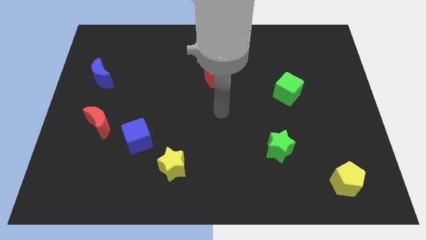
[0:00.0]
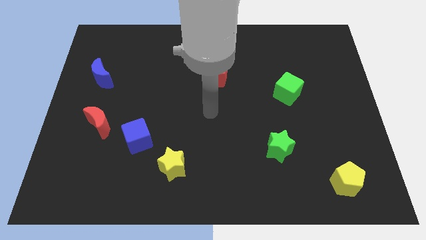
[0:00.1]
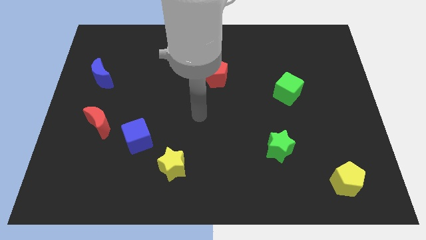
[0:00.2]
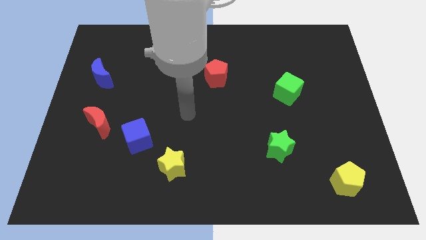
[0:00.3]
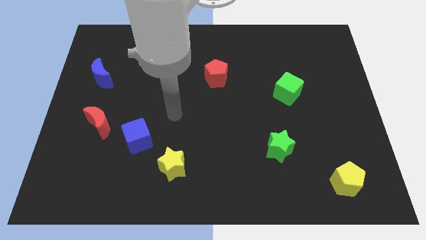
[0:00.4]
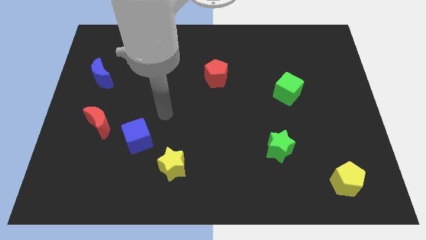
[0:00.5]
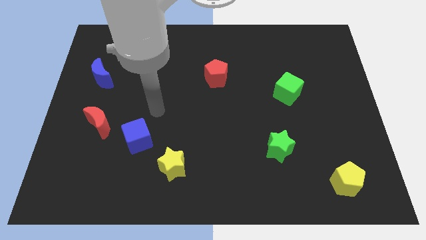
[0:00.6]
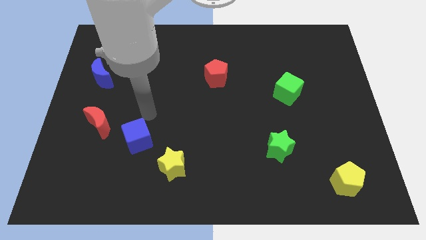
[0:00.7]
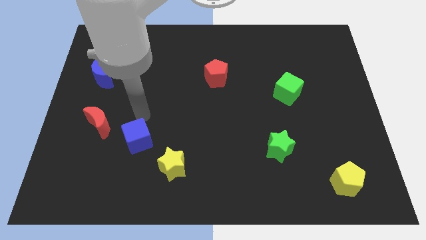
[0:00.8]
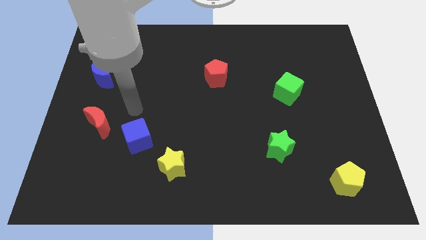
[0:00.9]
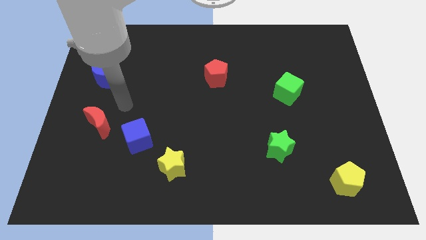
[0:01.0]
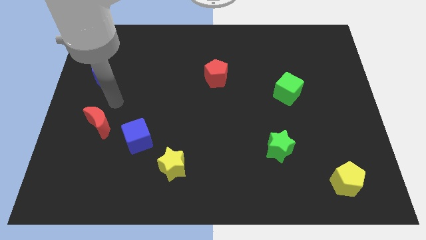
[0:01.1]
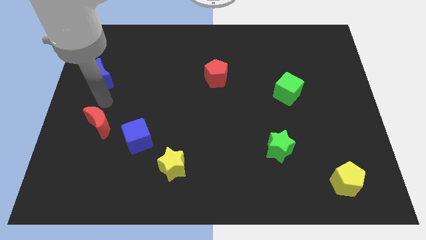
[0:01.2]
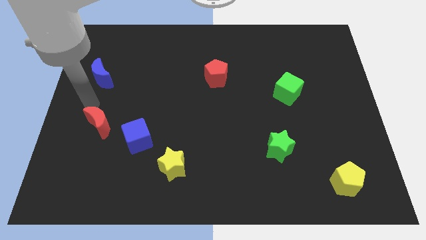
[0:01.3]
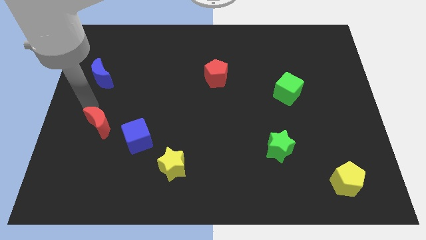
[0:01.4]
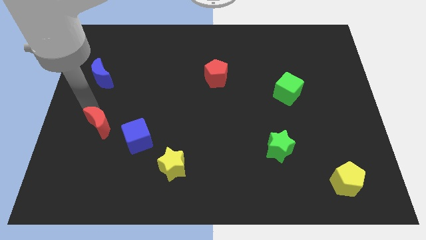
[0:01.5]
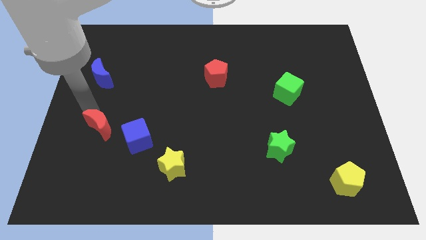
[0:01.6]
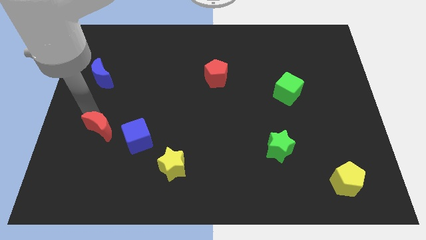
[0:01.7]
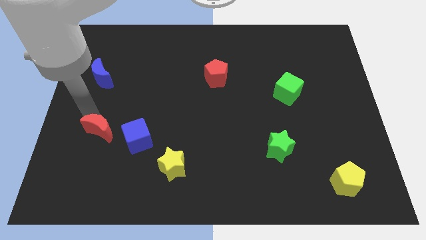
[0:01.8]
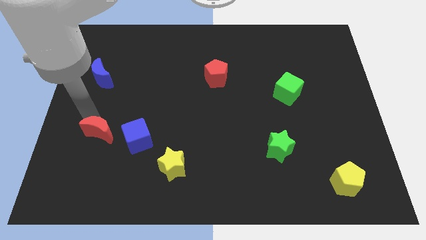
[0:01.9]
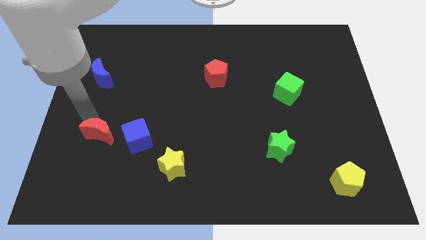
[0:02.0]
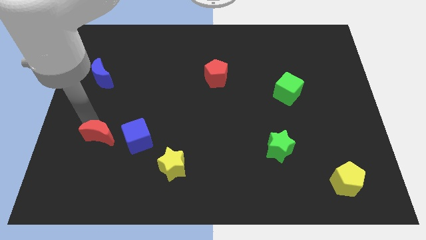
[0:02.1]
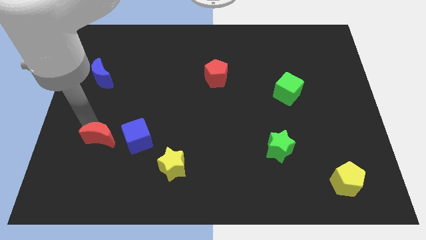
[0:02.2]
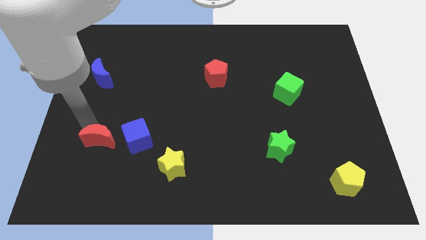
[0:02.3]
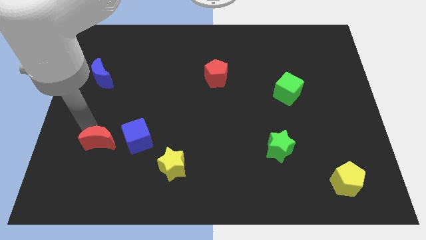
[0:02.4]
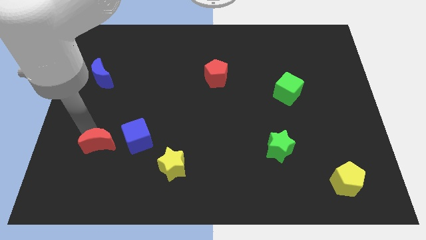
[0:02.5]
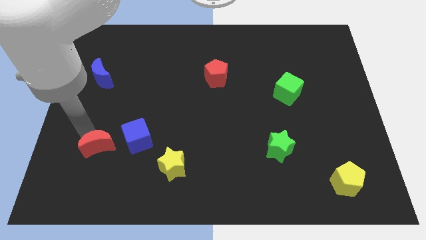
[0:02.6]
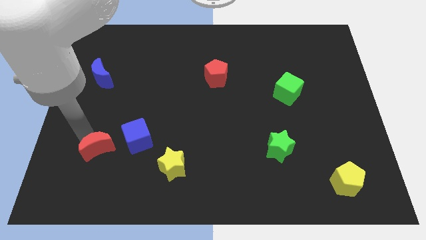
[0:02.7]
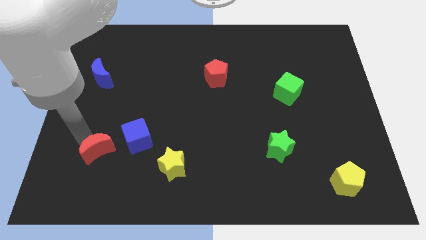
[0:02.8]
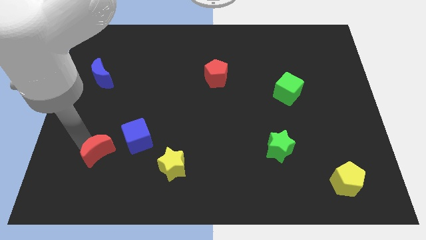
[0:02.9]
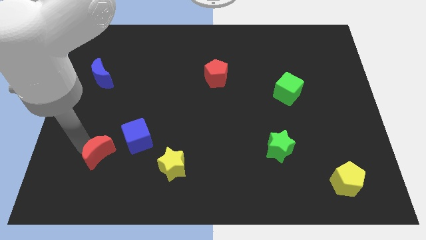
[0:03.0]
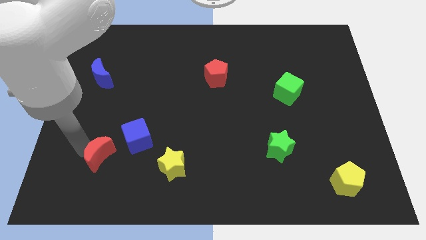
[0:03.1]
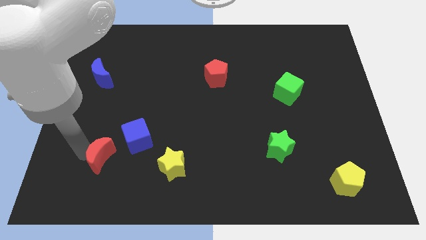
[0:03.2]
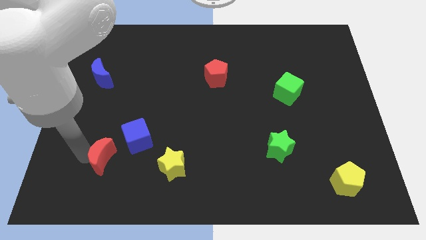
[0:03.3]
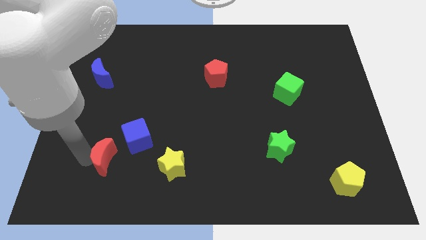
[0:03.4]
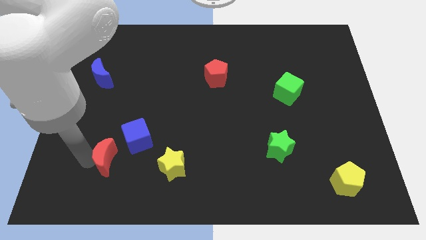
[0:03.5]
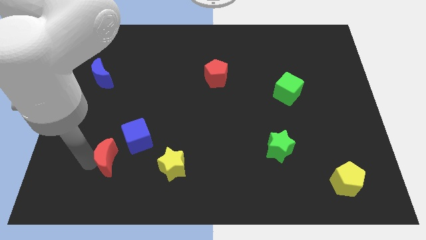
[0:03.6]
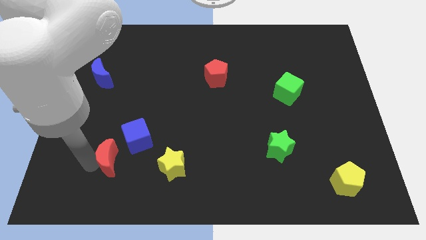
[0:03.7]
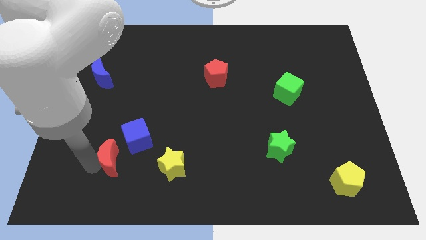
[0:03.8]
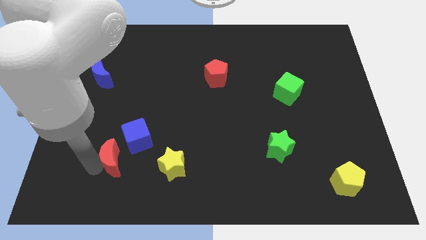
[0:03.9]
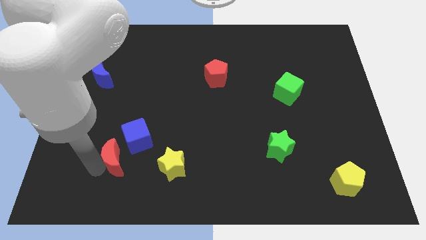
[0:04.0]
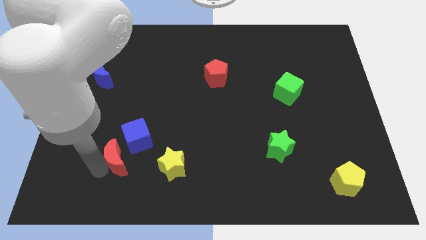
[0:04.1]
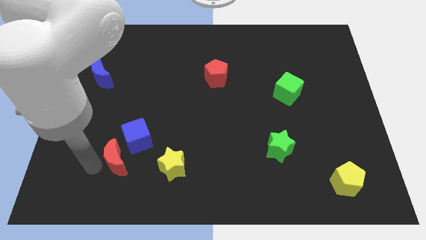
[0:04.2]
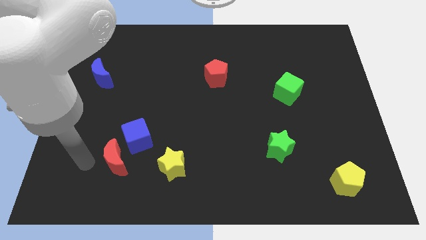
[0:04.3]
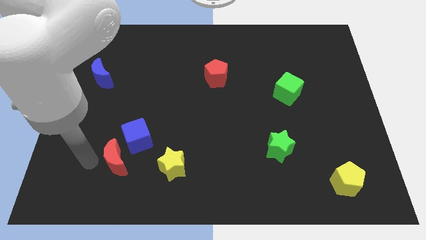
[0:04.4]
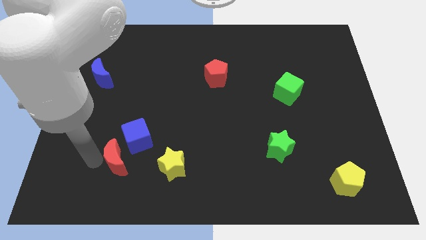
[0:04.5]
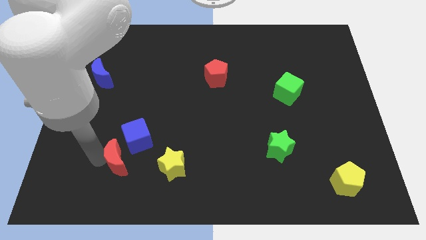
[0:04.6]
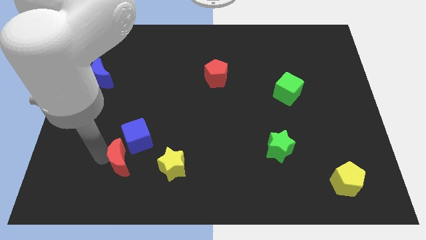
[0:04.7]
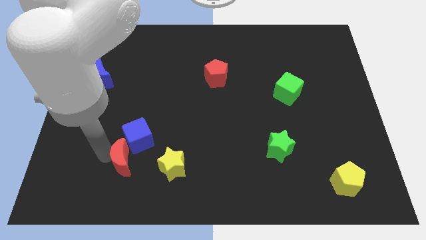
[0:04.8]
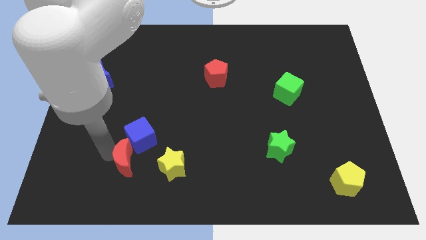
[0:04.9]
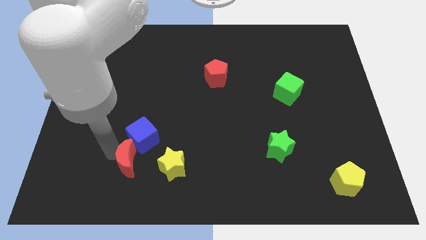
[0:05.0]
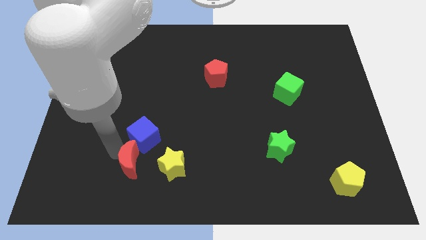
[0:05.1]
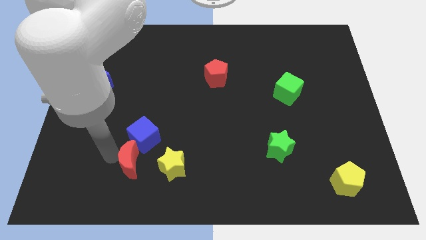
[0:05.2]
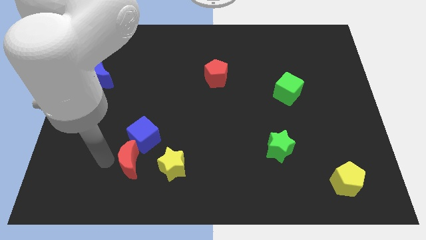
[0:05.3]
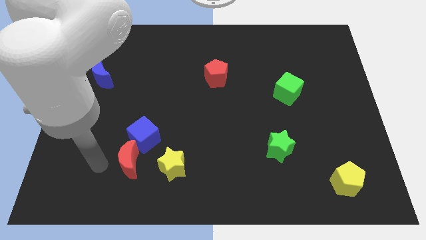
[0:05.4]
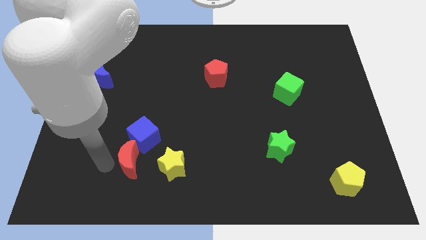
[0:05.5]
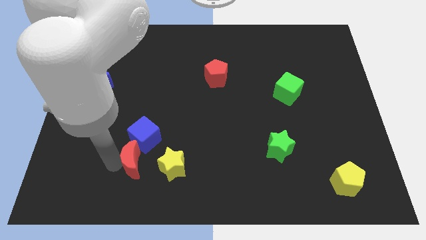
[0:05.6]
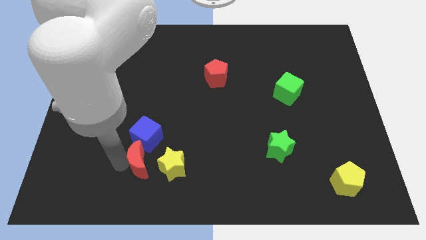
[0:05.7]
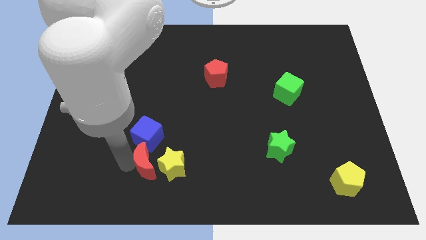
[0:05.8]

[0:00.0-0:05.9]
put the red moon to the yellow star

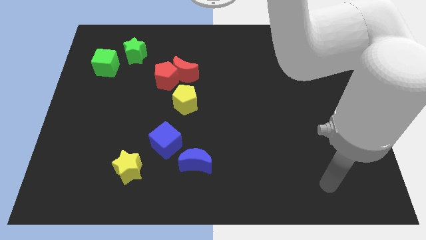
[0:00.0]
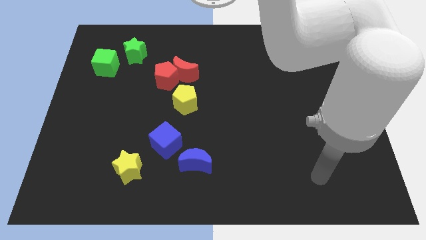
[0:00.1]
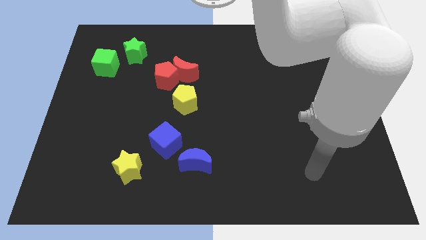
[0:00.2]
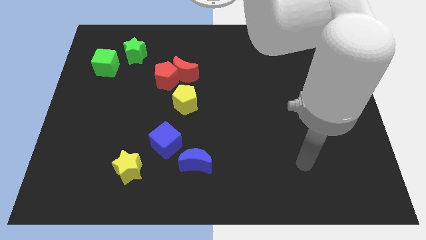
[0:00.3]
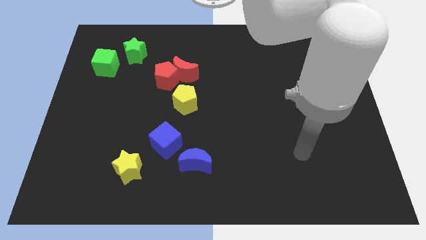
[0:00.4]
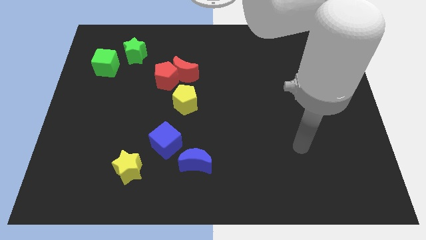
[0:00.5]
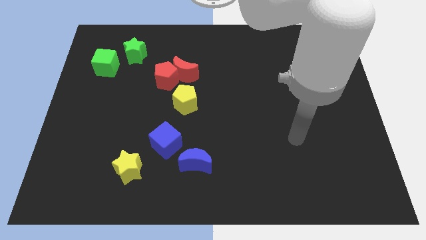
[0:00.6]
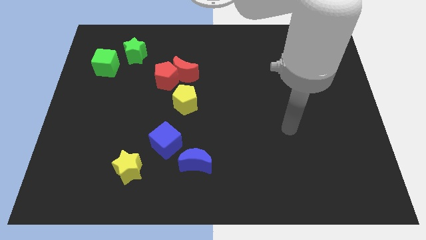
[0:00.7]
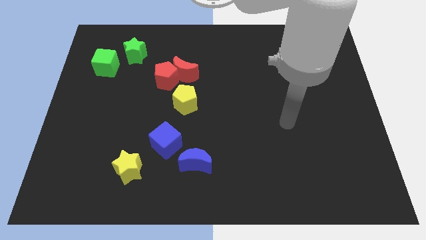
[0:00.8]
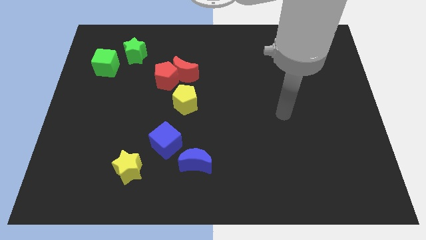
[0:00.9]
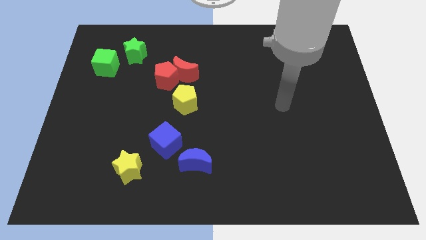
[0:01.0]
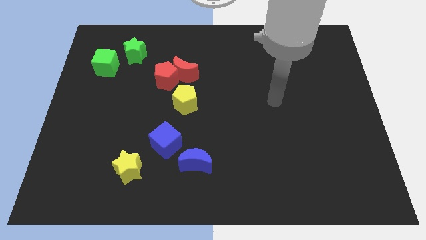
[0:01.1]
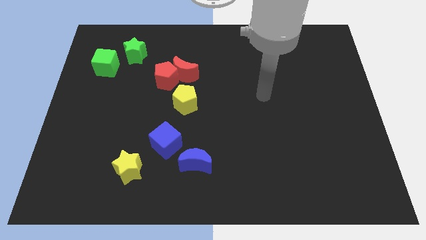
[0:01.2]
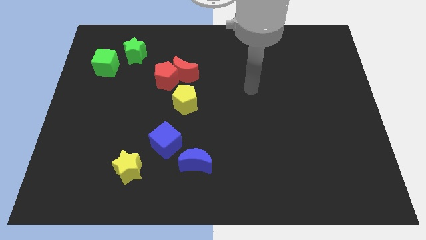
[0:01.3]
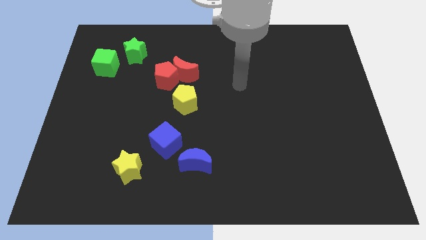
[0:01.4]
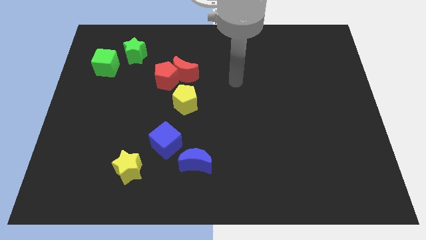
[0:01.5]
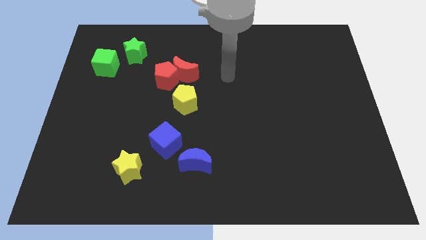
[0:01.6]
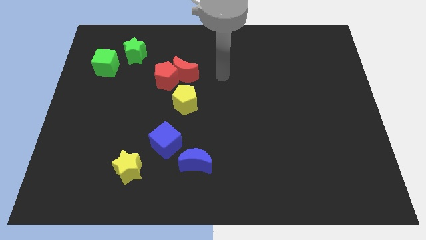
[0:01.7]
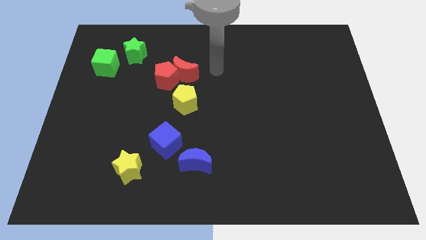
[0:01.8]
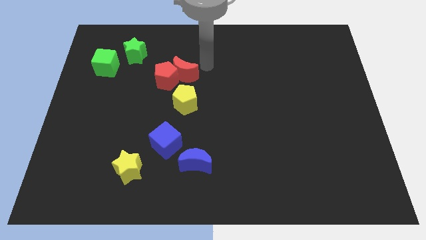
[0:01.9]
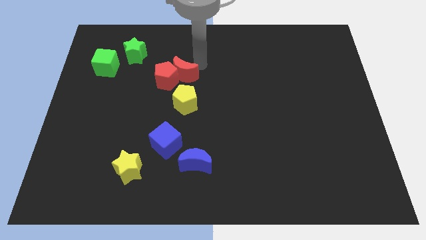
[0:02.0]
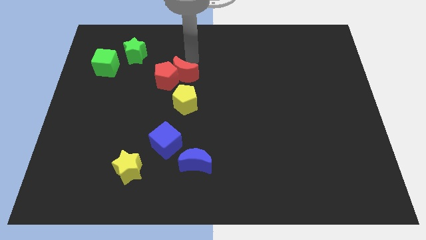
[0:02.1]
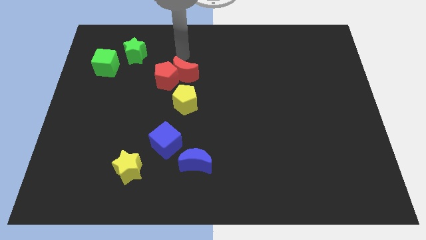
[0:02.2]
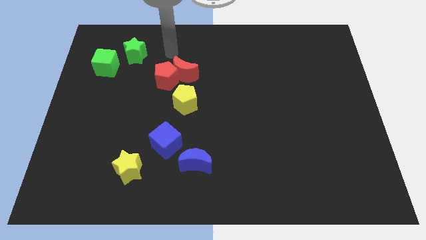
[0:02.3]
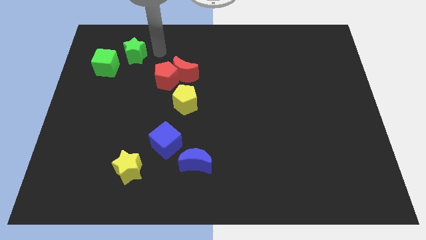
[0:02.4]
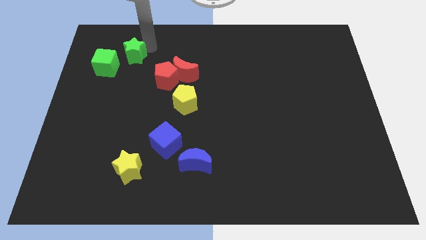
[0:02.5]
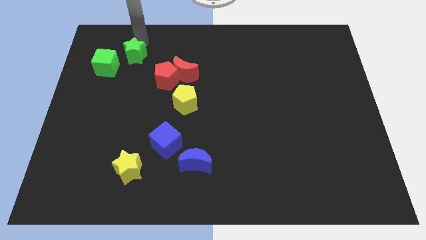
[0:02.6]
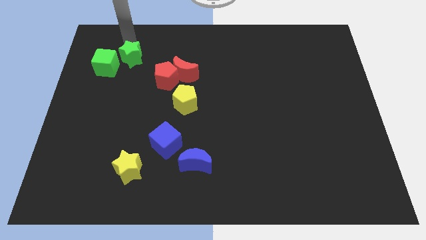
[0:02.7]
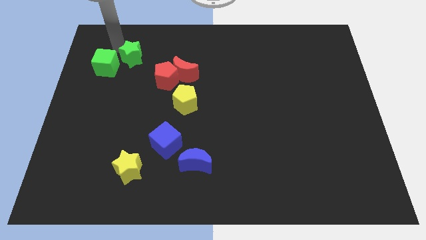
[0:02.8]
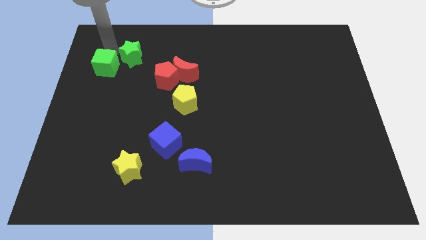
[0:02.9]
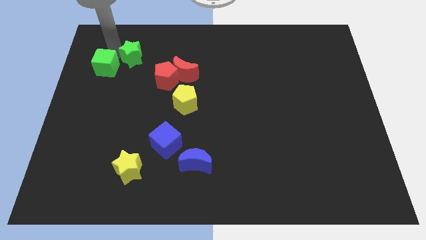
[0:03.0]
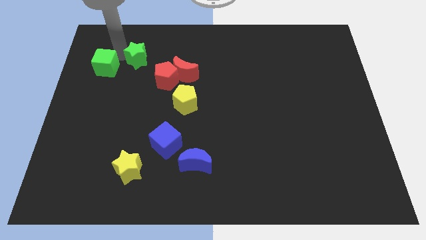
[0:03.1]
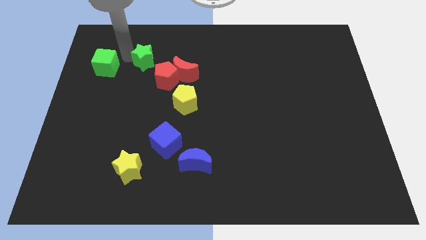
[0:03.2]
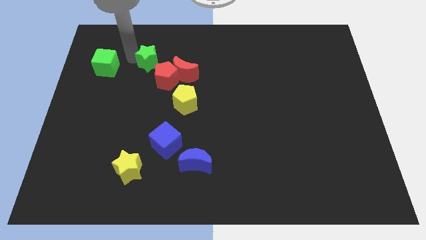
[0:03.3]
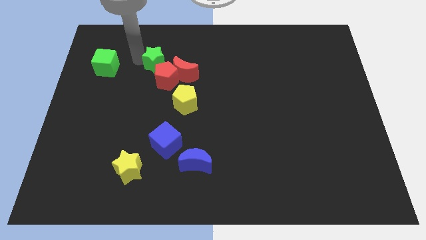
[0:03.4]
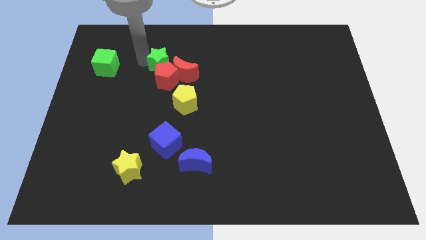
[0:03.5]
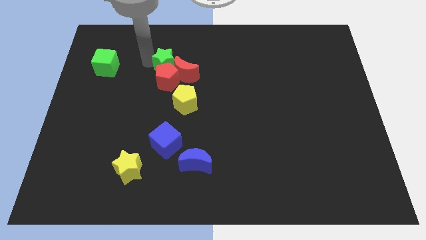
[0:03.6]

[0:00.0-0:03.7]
push the green star to the red moon
